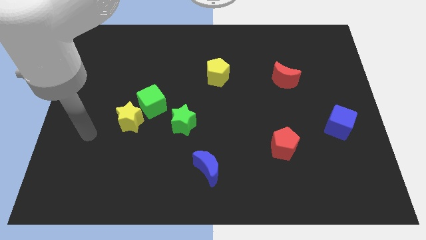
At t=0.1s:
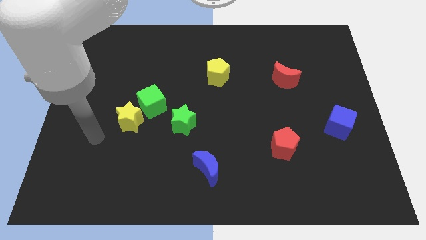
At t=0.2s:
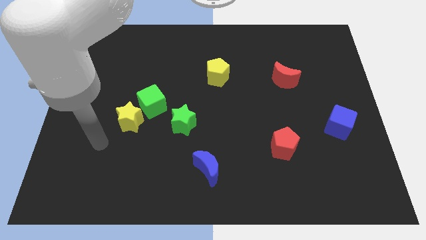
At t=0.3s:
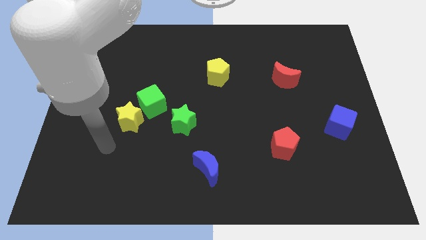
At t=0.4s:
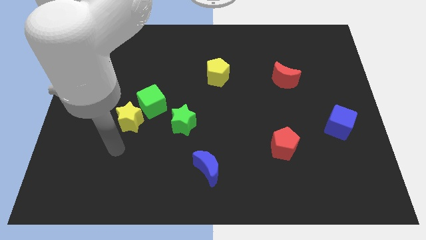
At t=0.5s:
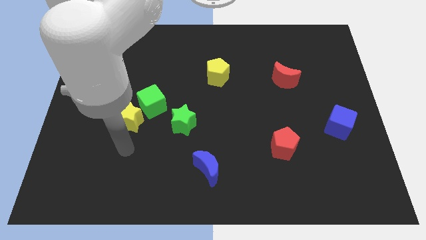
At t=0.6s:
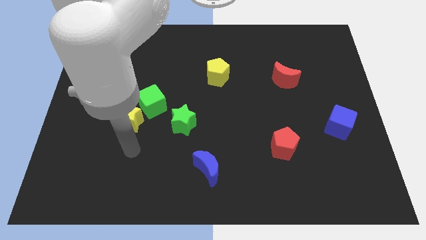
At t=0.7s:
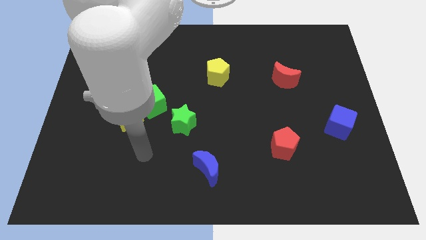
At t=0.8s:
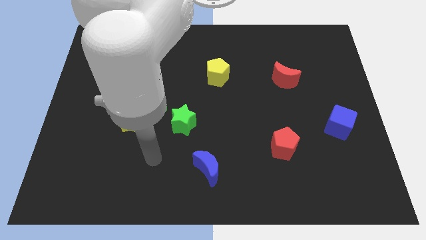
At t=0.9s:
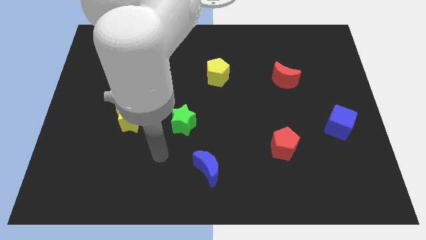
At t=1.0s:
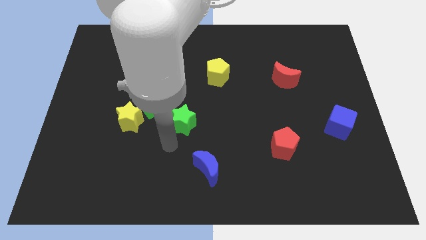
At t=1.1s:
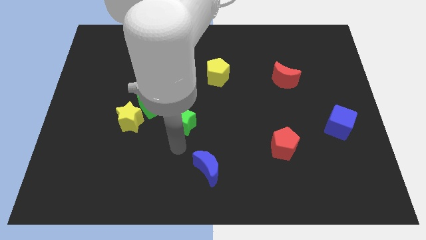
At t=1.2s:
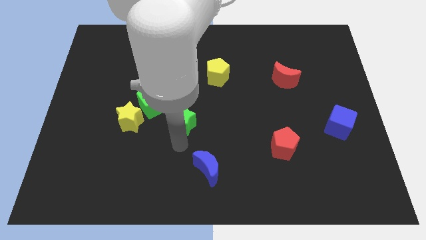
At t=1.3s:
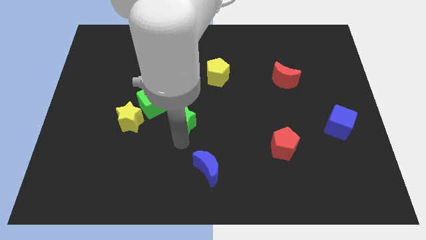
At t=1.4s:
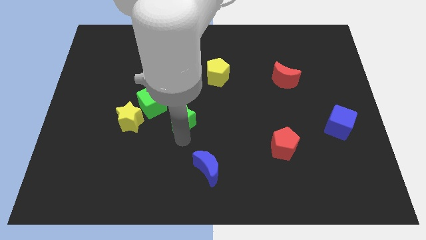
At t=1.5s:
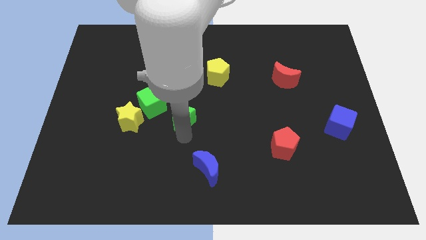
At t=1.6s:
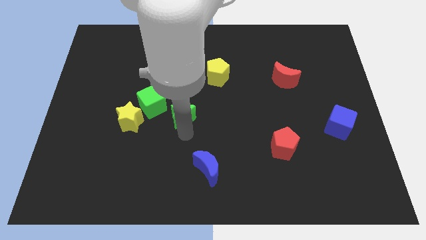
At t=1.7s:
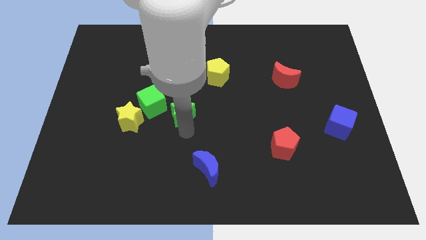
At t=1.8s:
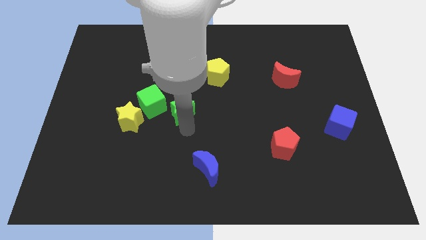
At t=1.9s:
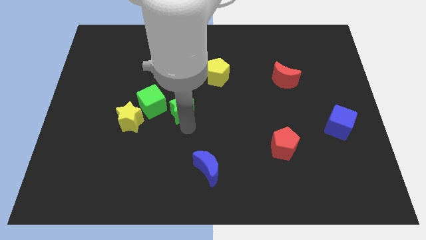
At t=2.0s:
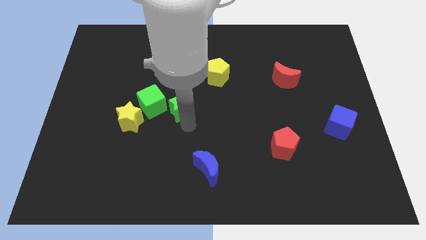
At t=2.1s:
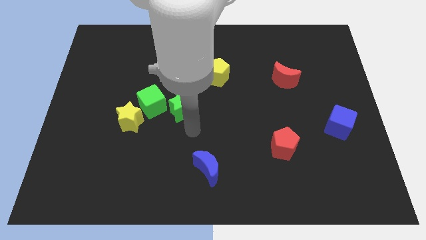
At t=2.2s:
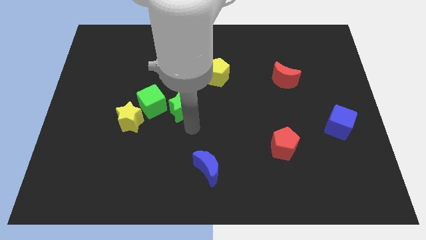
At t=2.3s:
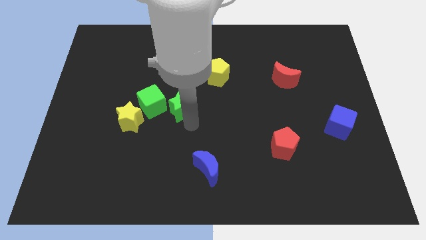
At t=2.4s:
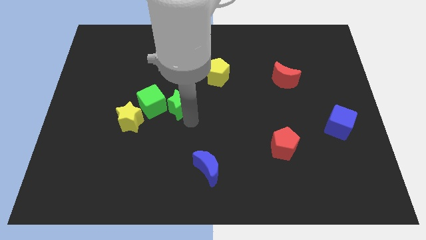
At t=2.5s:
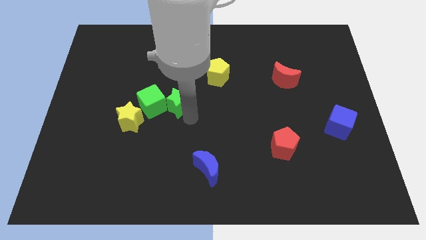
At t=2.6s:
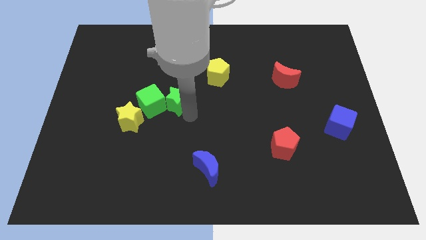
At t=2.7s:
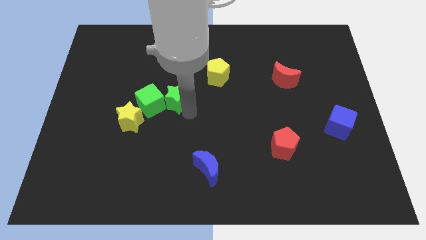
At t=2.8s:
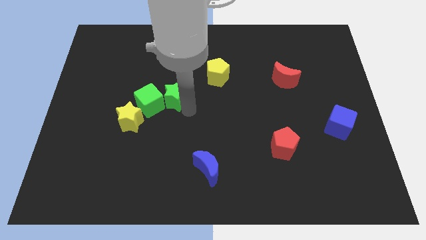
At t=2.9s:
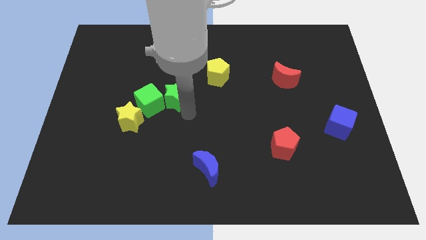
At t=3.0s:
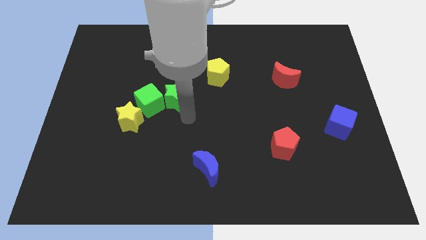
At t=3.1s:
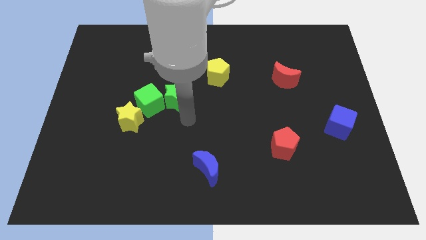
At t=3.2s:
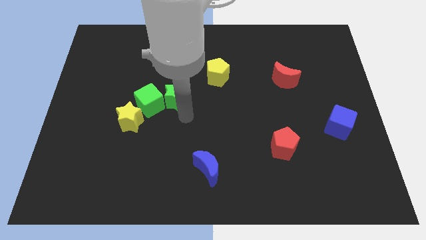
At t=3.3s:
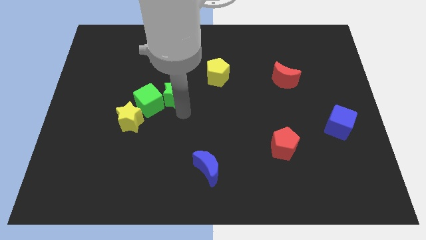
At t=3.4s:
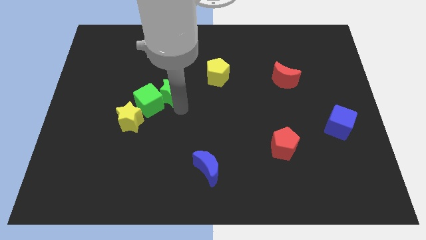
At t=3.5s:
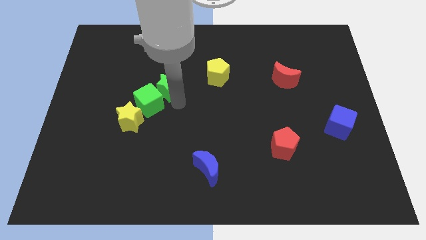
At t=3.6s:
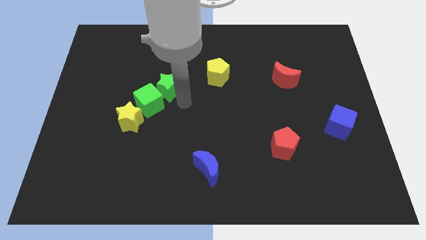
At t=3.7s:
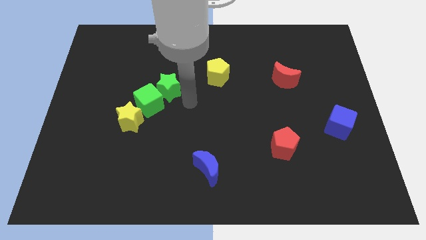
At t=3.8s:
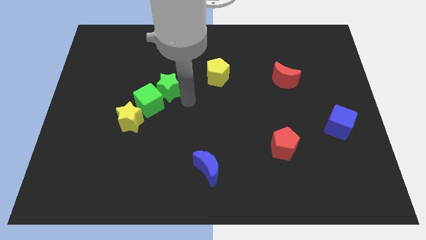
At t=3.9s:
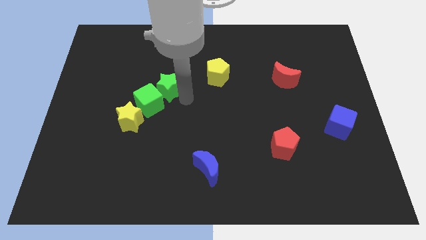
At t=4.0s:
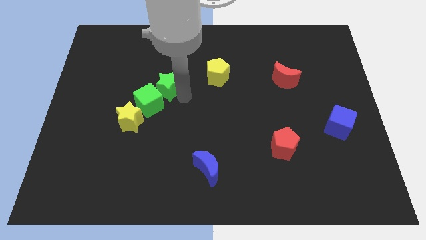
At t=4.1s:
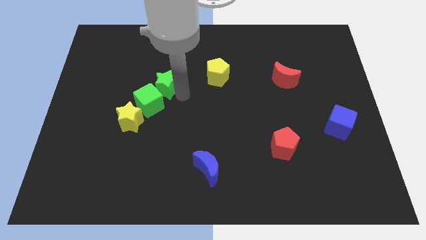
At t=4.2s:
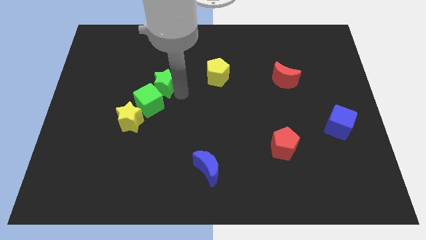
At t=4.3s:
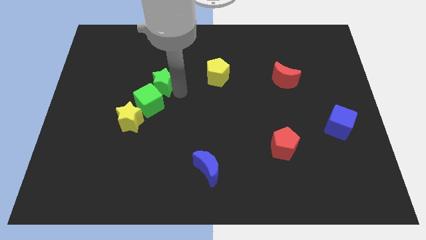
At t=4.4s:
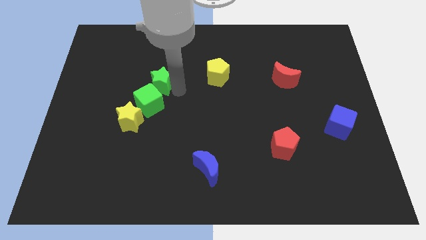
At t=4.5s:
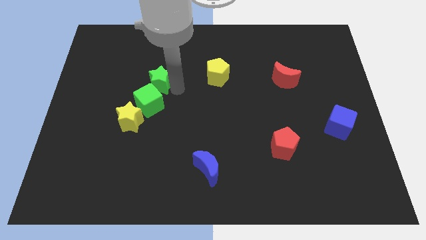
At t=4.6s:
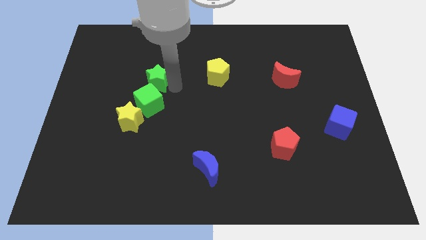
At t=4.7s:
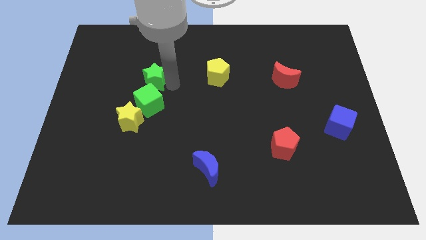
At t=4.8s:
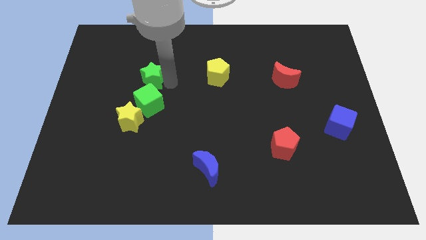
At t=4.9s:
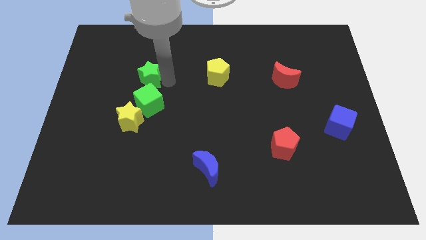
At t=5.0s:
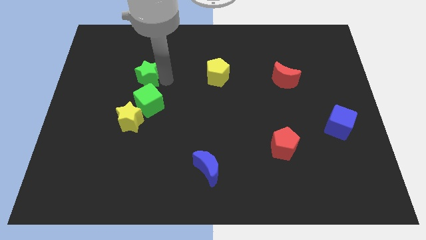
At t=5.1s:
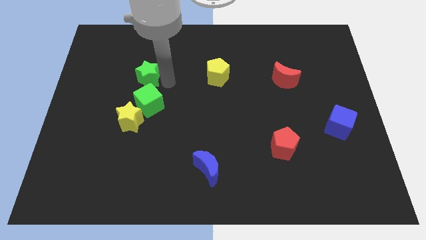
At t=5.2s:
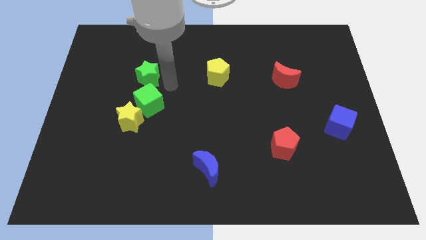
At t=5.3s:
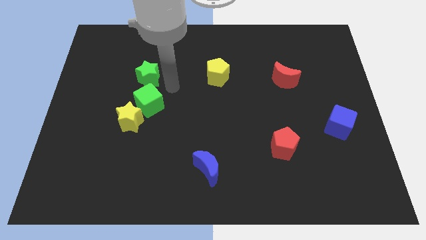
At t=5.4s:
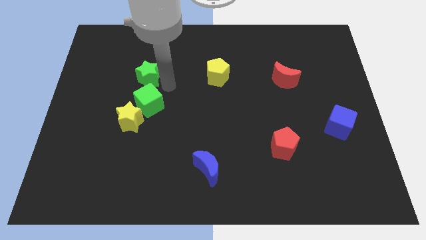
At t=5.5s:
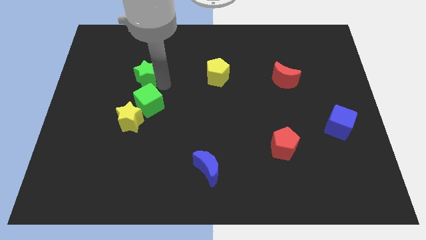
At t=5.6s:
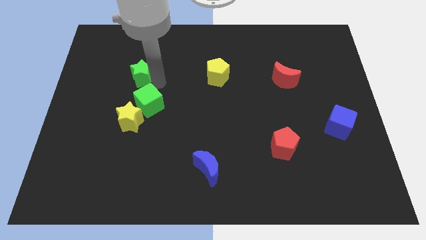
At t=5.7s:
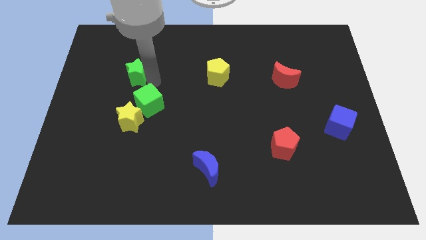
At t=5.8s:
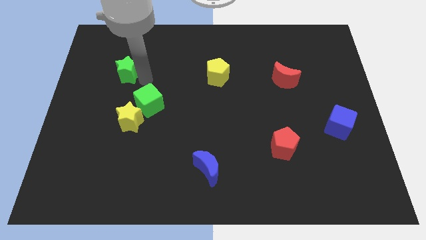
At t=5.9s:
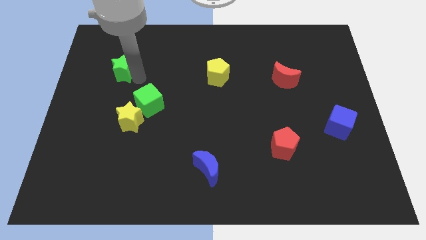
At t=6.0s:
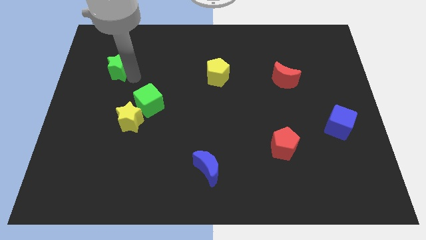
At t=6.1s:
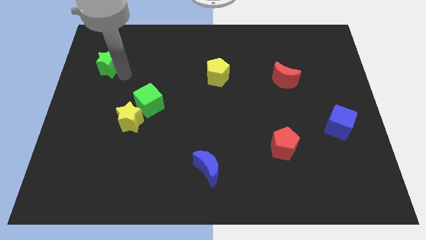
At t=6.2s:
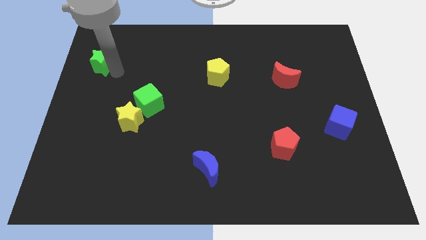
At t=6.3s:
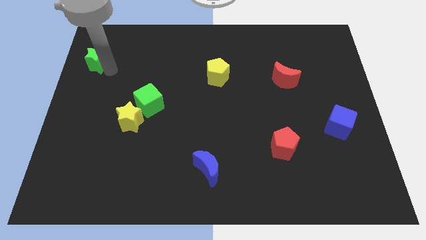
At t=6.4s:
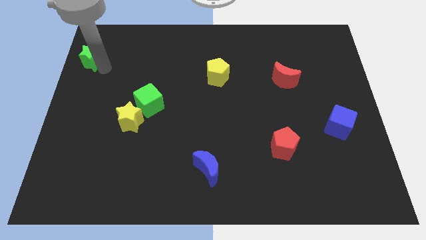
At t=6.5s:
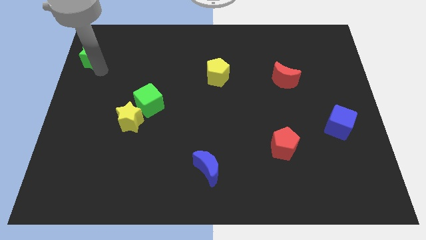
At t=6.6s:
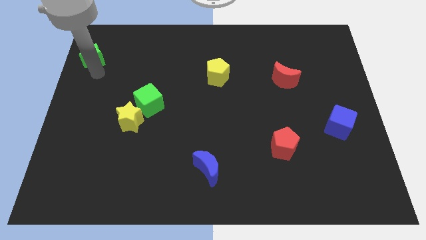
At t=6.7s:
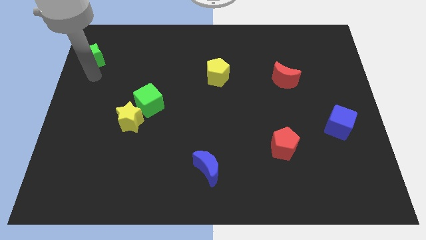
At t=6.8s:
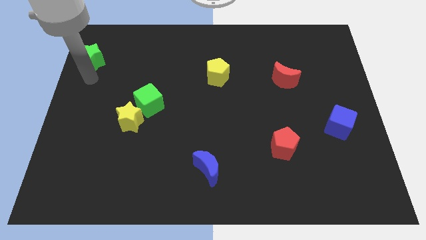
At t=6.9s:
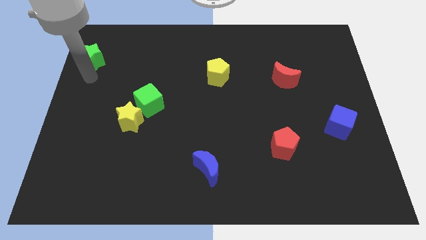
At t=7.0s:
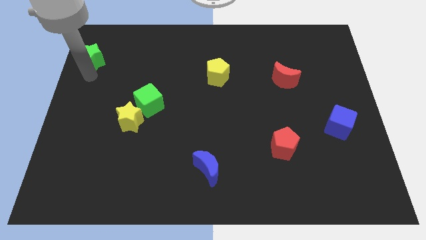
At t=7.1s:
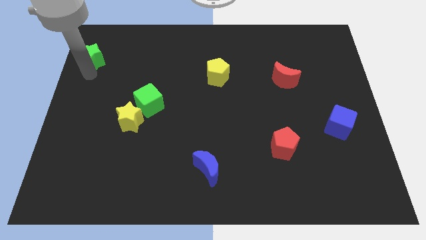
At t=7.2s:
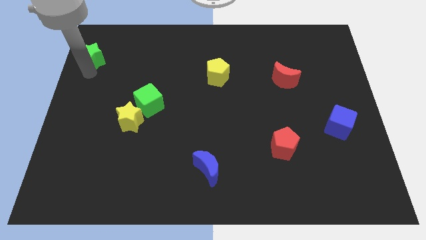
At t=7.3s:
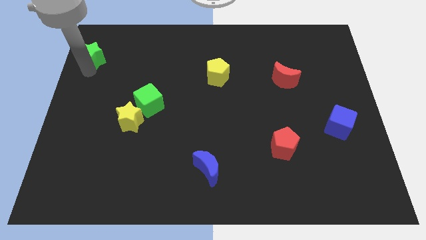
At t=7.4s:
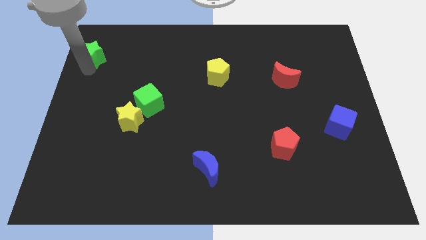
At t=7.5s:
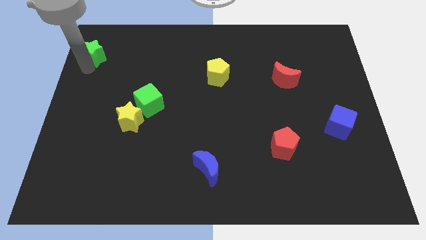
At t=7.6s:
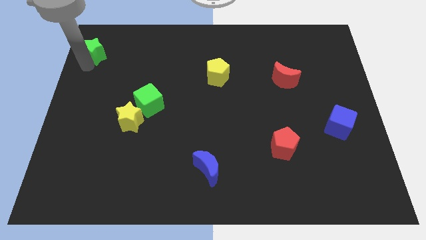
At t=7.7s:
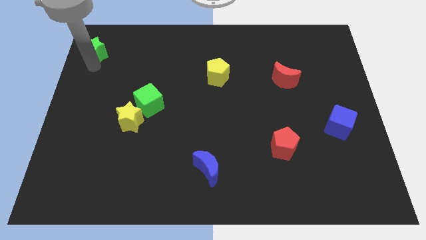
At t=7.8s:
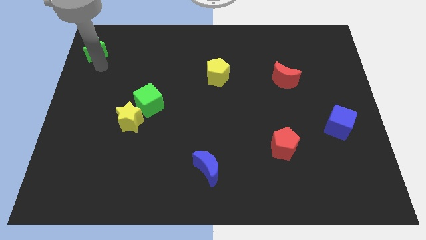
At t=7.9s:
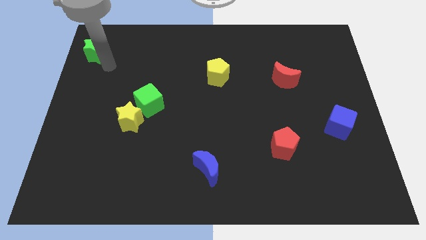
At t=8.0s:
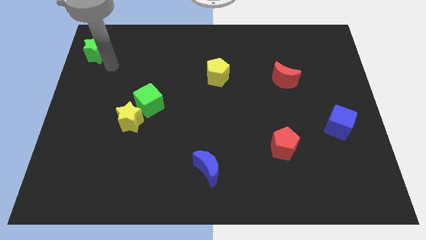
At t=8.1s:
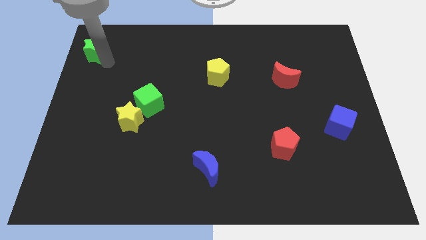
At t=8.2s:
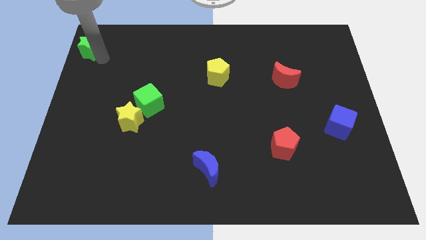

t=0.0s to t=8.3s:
move the green star to the top left
